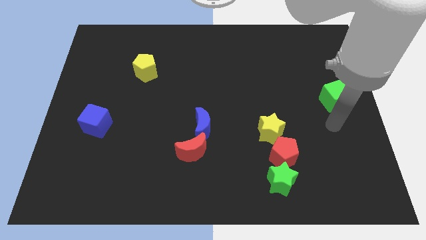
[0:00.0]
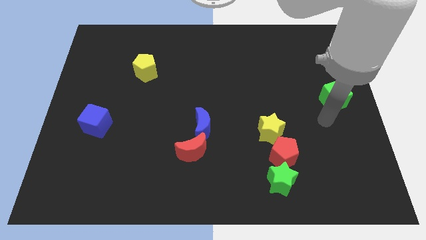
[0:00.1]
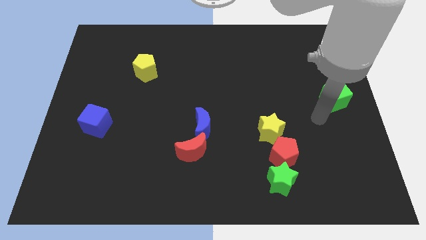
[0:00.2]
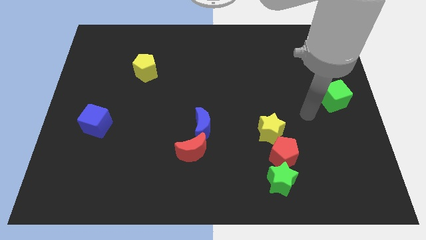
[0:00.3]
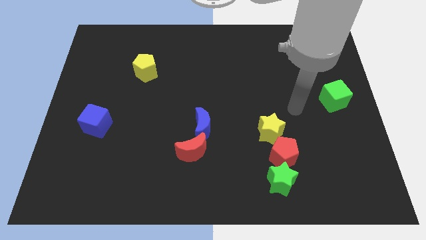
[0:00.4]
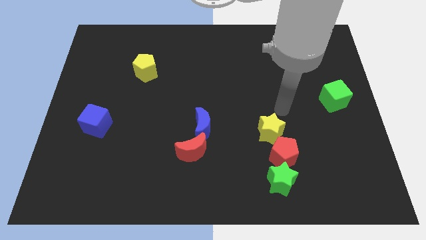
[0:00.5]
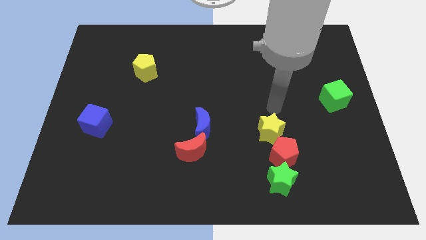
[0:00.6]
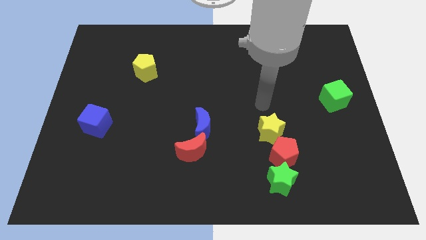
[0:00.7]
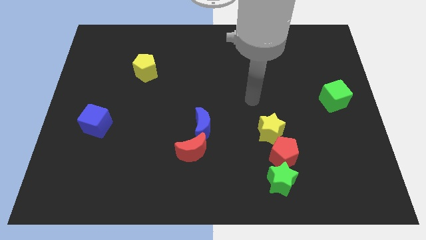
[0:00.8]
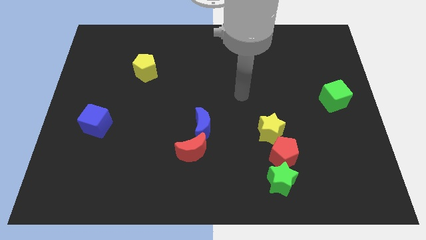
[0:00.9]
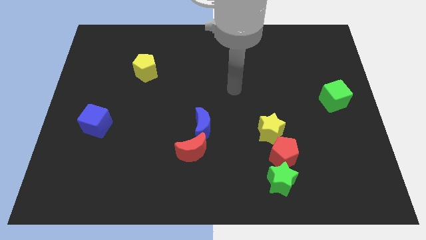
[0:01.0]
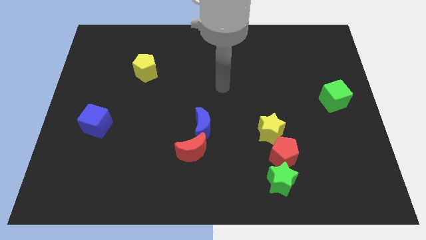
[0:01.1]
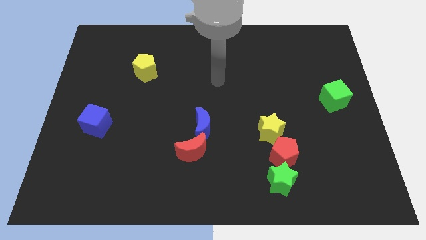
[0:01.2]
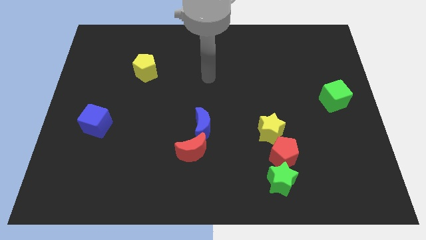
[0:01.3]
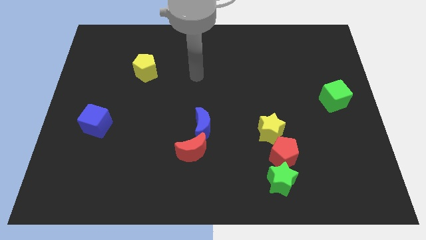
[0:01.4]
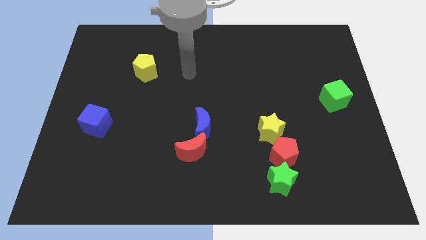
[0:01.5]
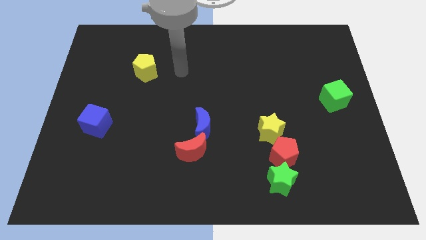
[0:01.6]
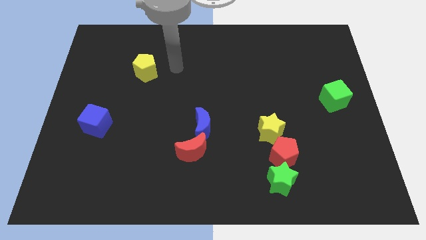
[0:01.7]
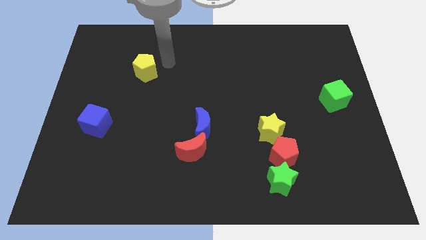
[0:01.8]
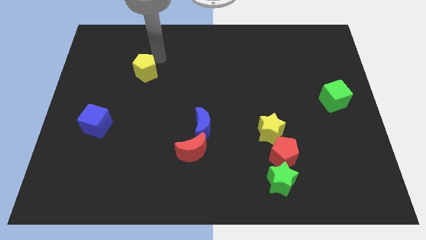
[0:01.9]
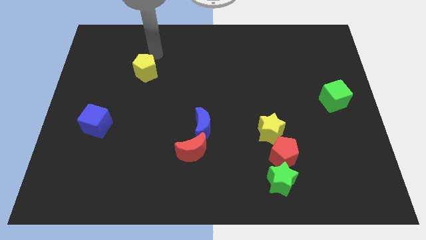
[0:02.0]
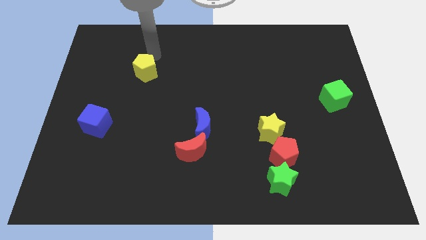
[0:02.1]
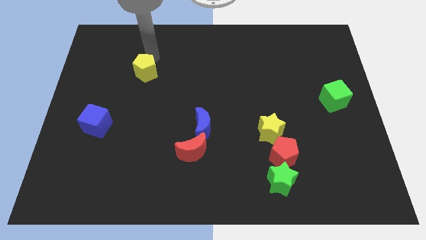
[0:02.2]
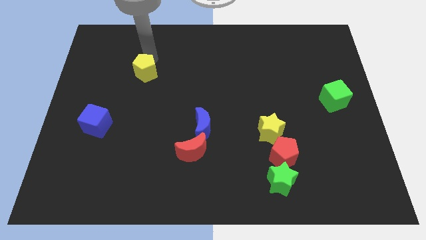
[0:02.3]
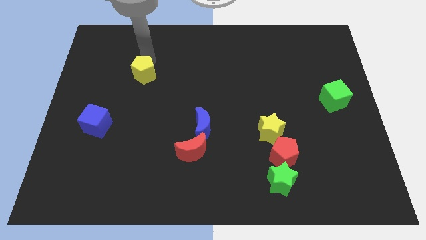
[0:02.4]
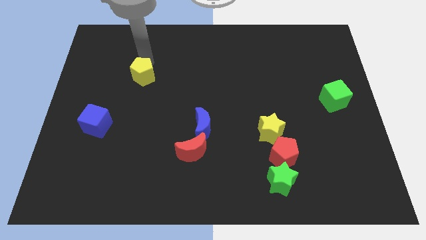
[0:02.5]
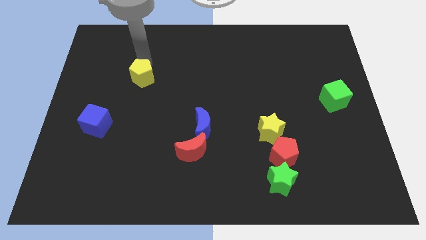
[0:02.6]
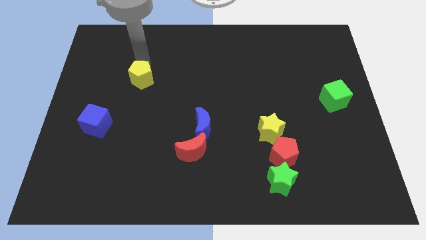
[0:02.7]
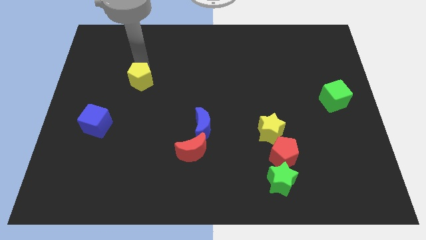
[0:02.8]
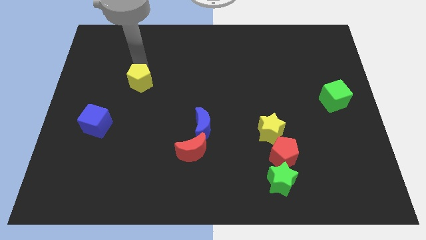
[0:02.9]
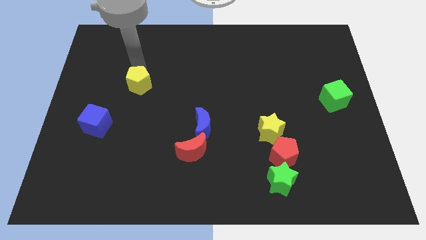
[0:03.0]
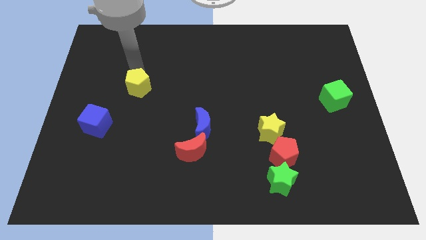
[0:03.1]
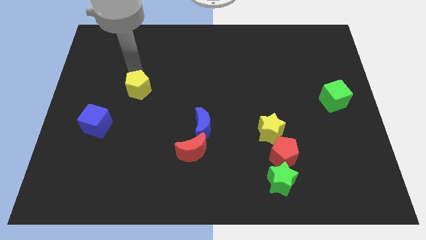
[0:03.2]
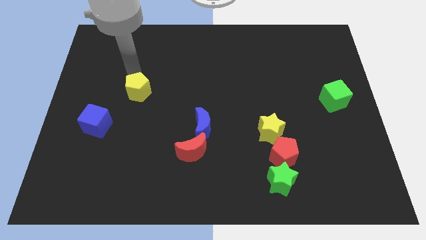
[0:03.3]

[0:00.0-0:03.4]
slightly push the yellow pentagon down

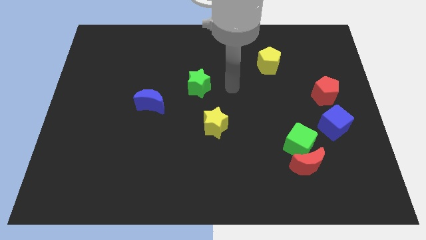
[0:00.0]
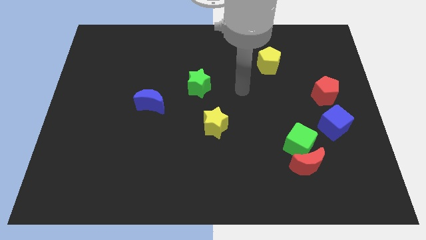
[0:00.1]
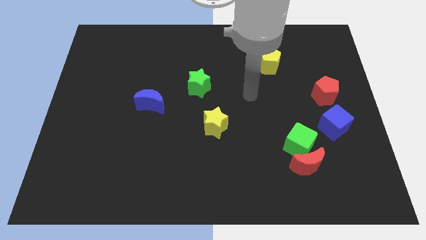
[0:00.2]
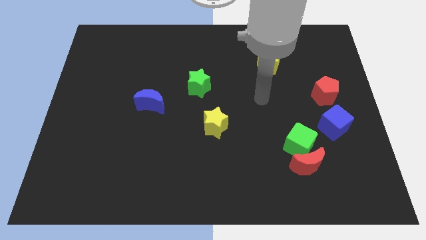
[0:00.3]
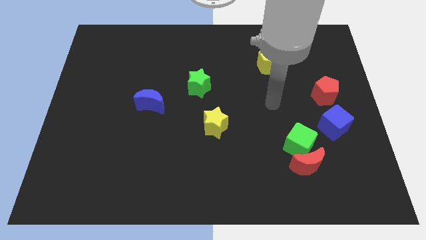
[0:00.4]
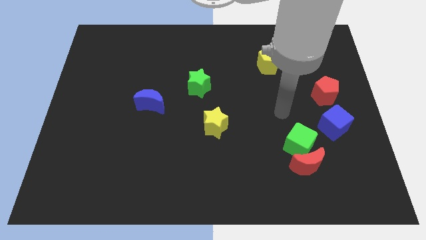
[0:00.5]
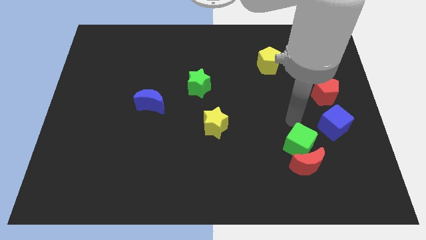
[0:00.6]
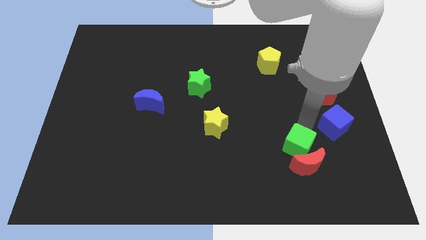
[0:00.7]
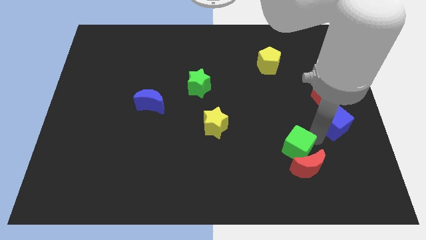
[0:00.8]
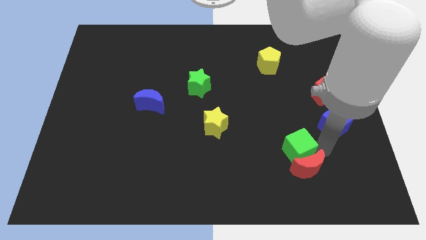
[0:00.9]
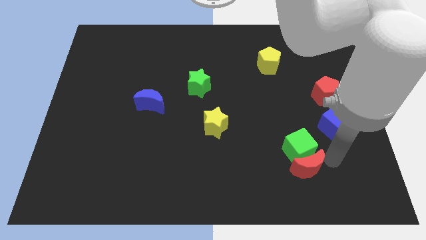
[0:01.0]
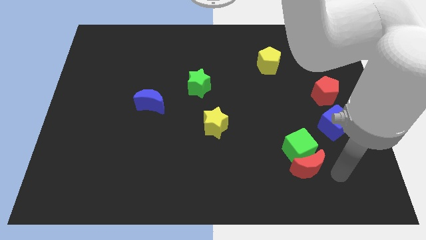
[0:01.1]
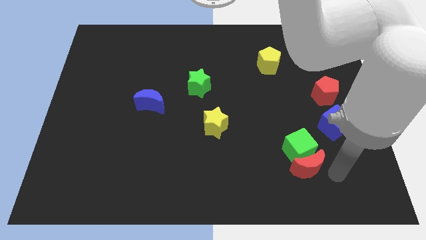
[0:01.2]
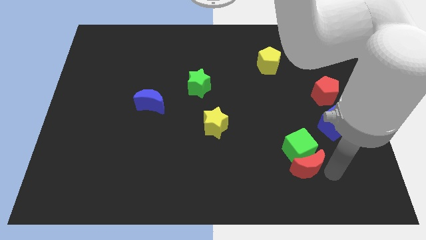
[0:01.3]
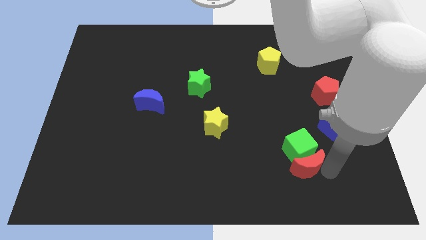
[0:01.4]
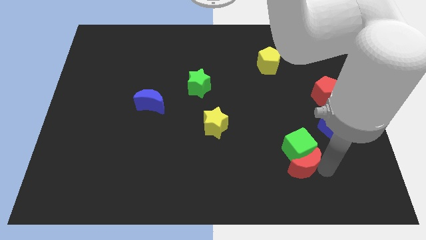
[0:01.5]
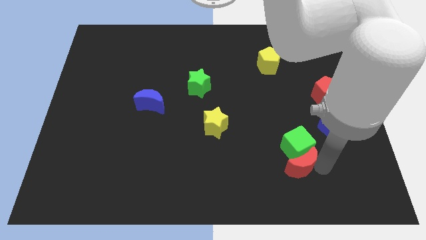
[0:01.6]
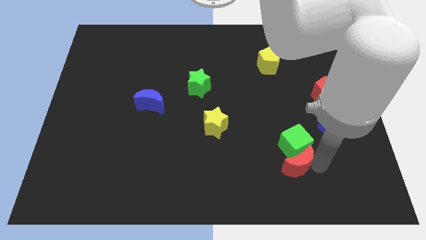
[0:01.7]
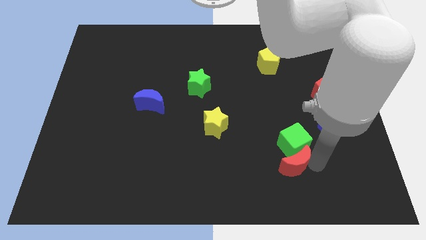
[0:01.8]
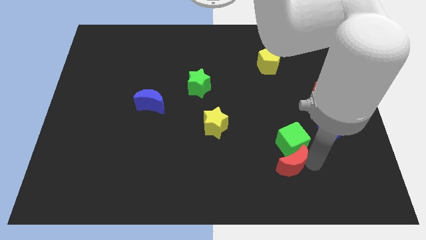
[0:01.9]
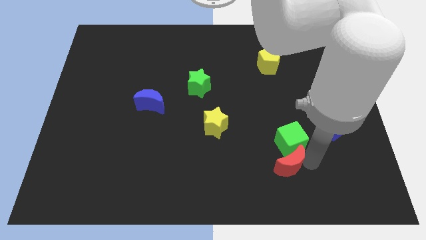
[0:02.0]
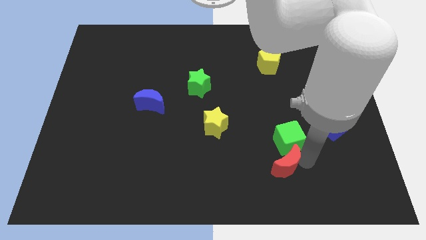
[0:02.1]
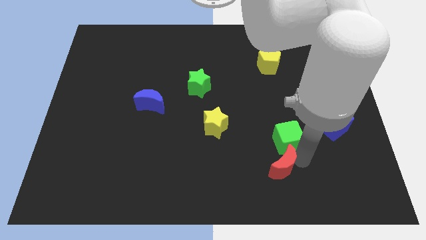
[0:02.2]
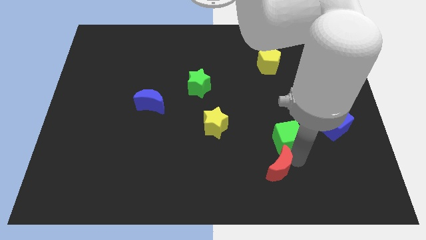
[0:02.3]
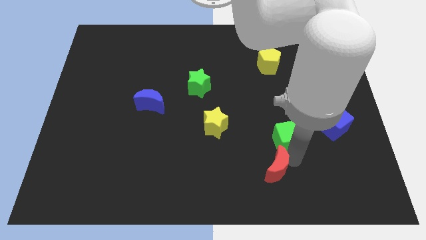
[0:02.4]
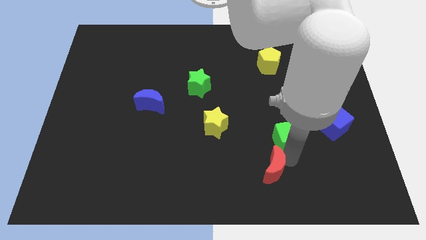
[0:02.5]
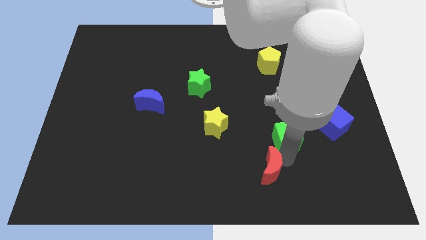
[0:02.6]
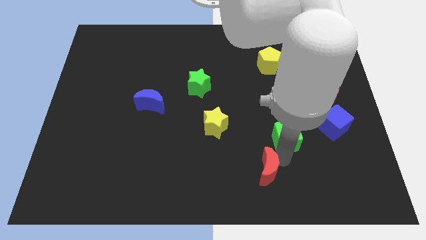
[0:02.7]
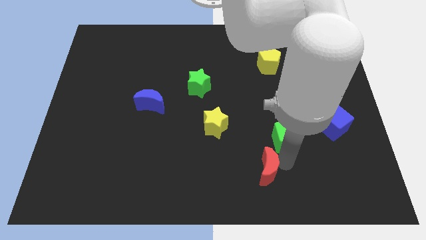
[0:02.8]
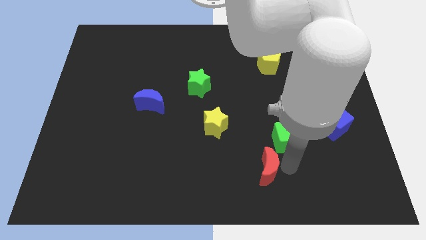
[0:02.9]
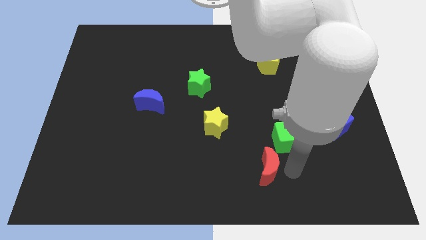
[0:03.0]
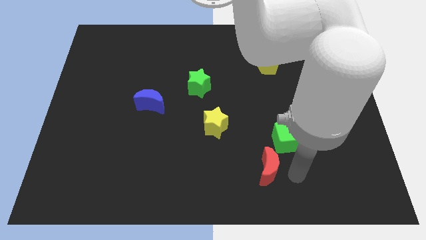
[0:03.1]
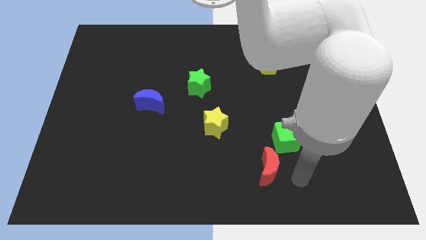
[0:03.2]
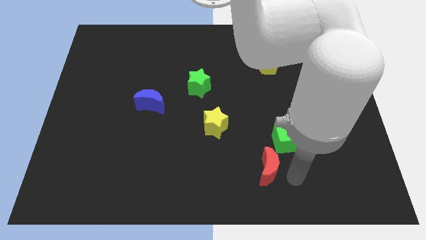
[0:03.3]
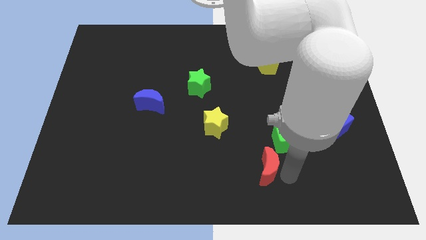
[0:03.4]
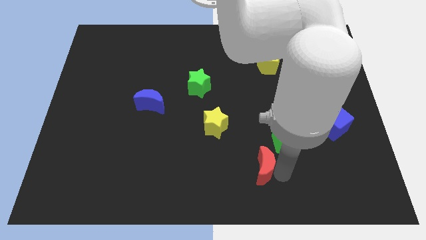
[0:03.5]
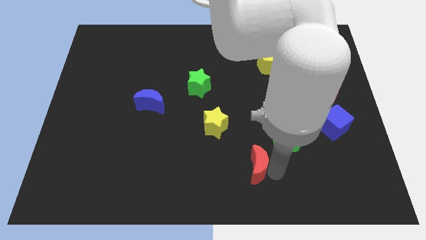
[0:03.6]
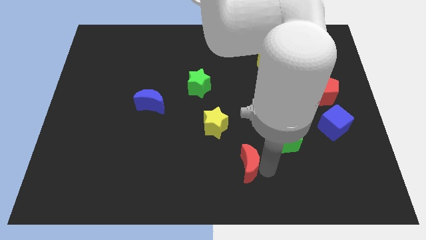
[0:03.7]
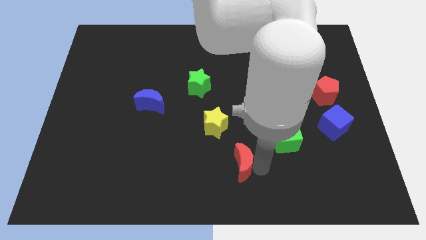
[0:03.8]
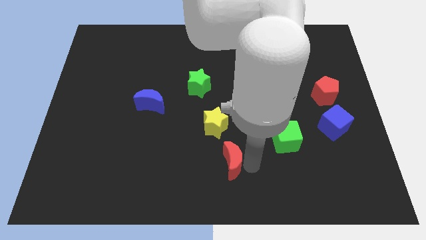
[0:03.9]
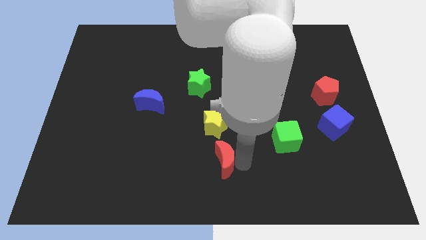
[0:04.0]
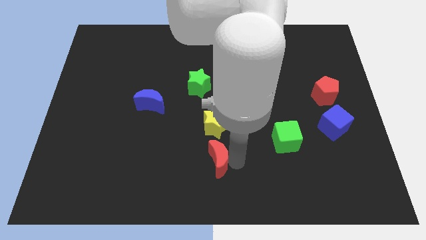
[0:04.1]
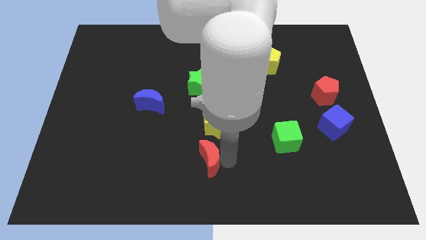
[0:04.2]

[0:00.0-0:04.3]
push the red moon left

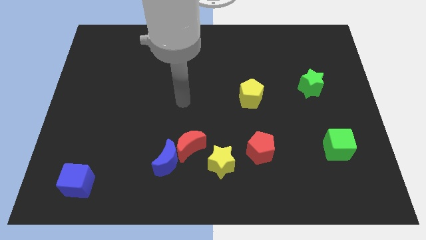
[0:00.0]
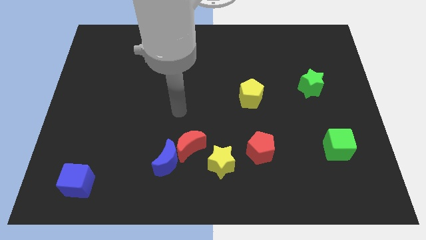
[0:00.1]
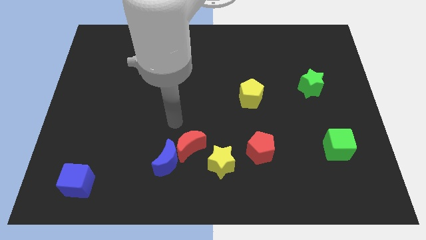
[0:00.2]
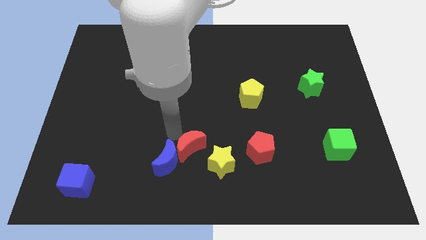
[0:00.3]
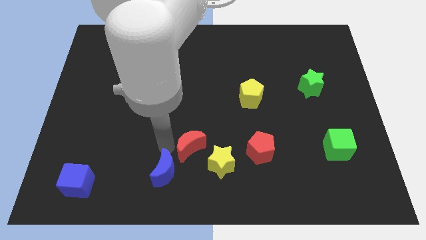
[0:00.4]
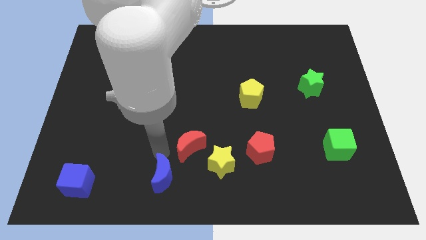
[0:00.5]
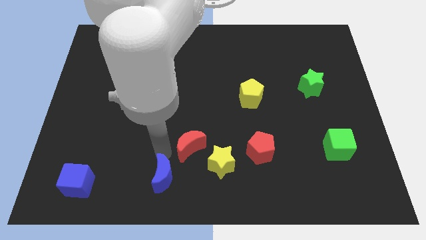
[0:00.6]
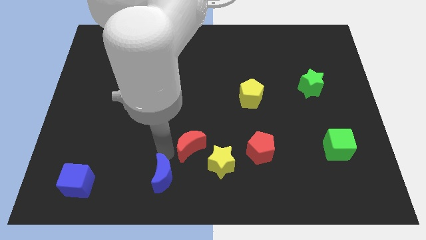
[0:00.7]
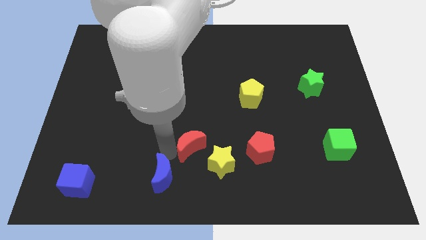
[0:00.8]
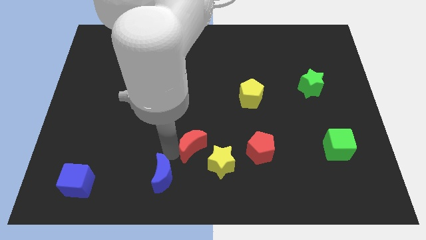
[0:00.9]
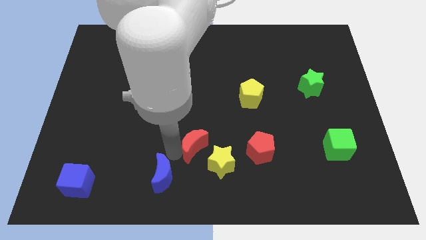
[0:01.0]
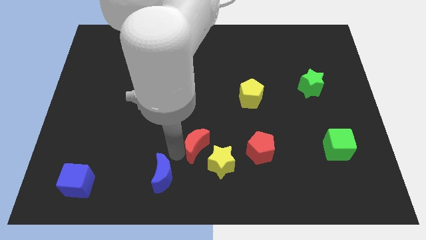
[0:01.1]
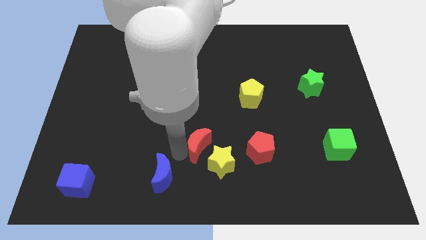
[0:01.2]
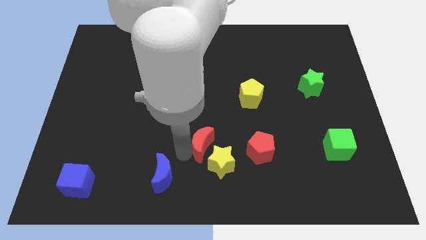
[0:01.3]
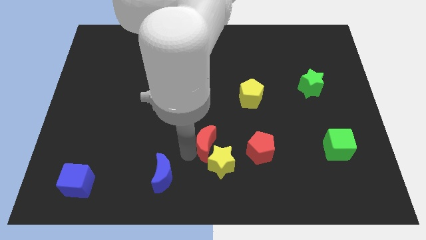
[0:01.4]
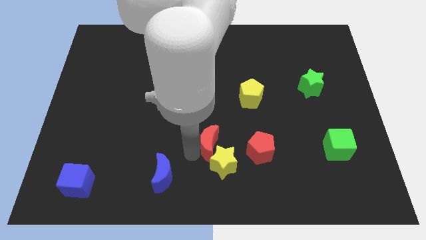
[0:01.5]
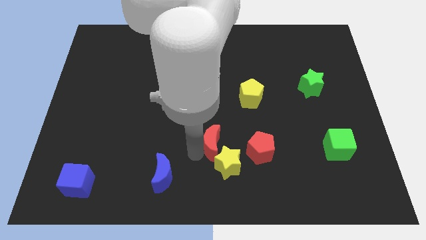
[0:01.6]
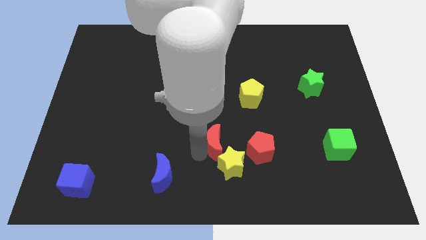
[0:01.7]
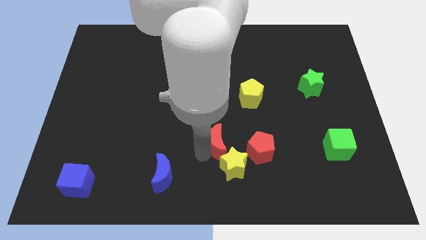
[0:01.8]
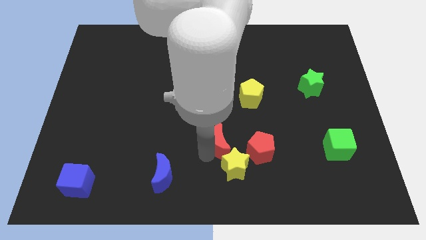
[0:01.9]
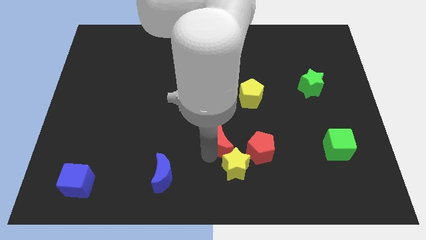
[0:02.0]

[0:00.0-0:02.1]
push the red moon a bit right
